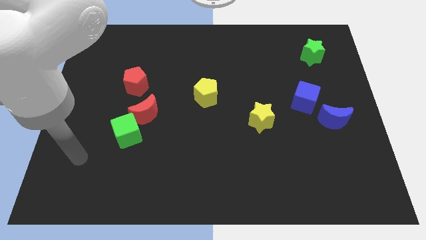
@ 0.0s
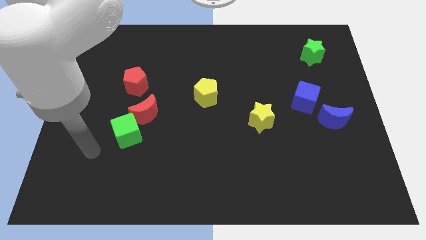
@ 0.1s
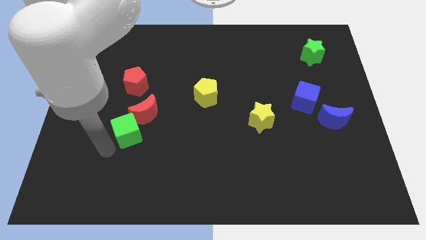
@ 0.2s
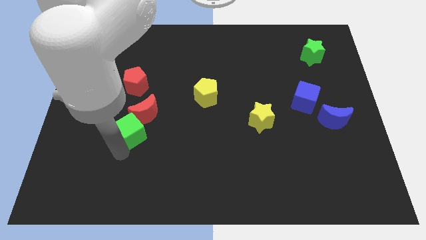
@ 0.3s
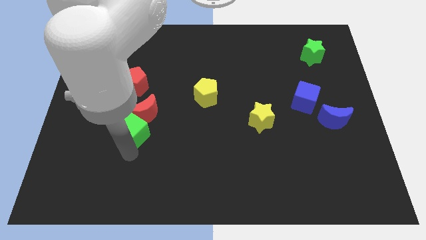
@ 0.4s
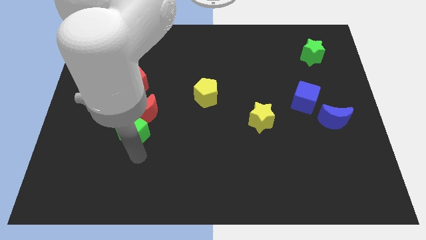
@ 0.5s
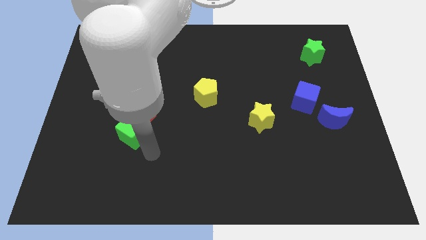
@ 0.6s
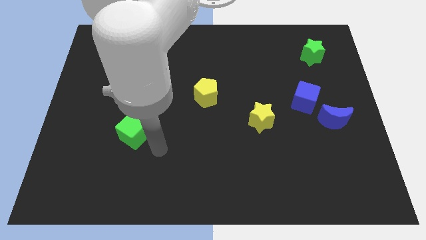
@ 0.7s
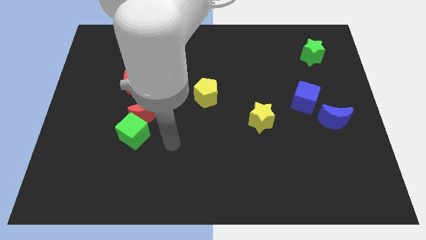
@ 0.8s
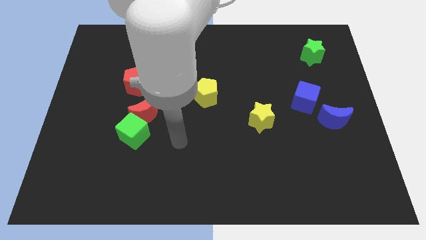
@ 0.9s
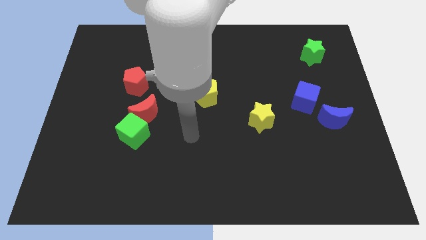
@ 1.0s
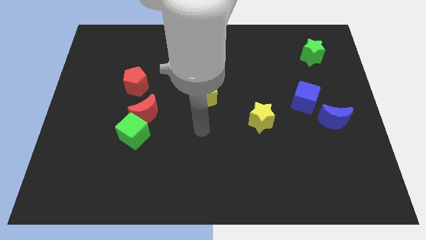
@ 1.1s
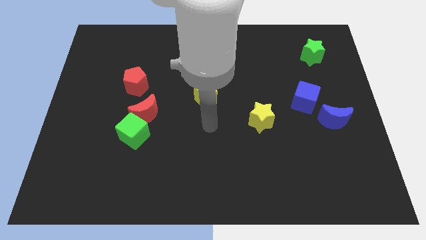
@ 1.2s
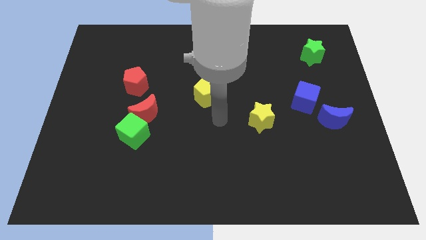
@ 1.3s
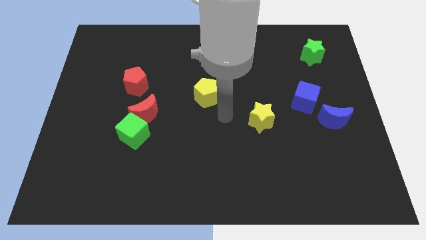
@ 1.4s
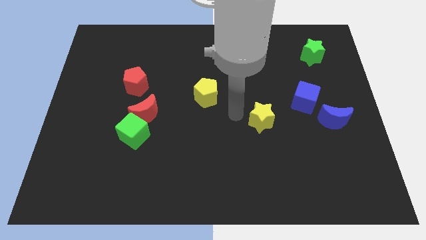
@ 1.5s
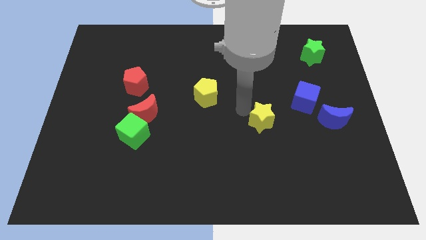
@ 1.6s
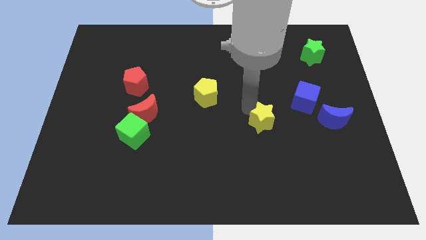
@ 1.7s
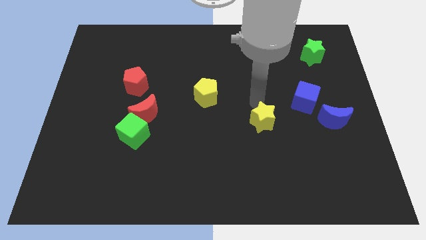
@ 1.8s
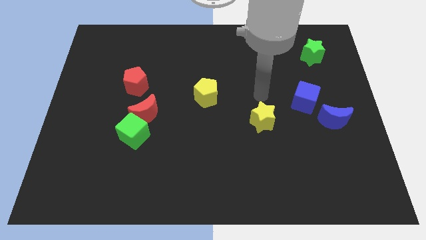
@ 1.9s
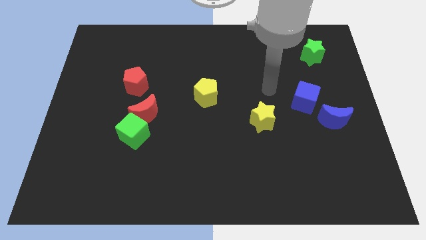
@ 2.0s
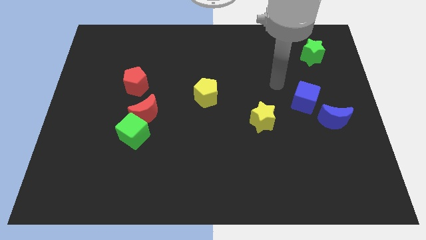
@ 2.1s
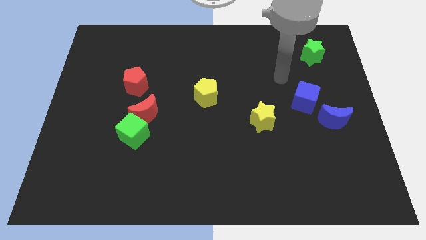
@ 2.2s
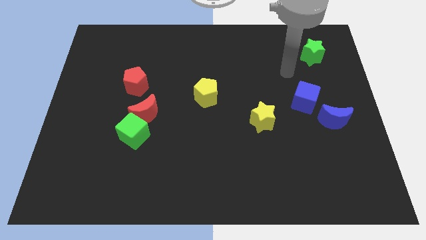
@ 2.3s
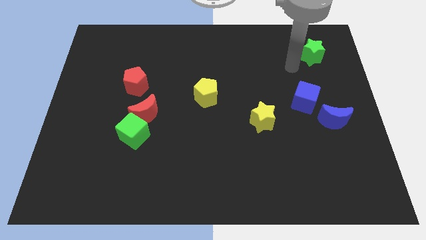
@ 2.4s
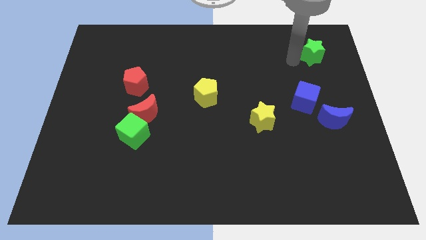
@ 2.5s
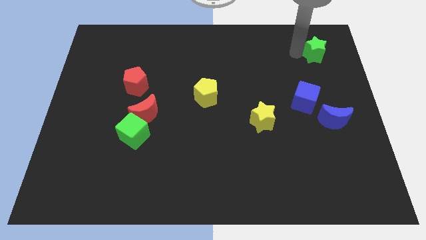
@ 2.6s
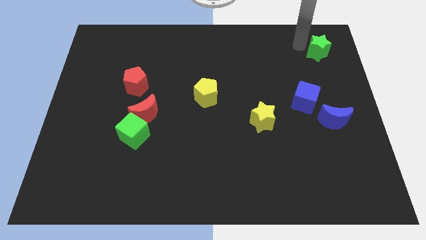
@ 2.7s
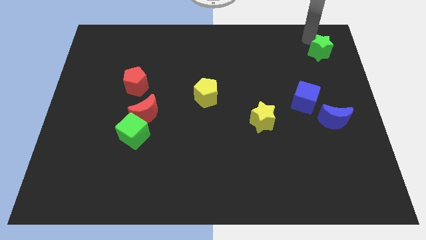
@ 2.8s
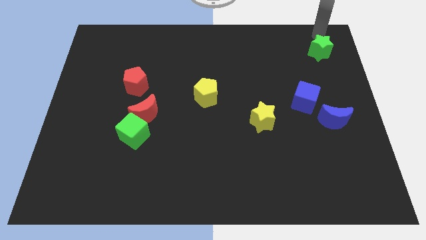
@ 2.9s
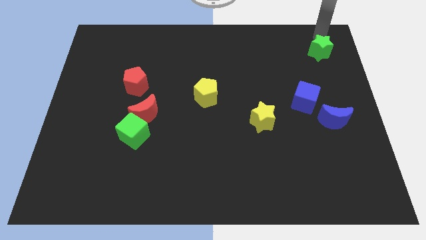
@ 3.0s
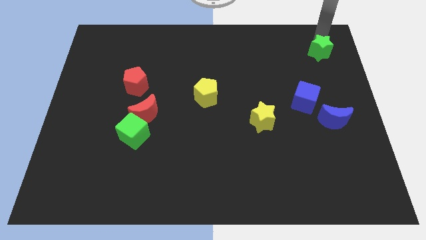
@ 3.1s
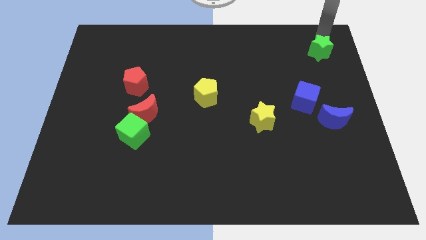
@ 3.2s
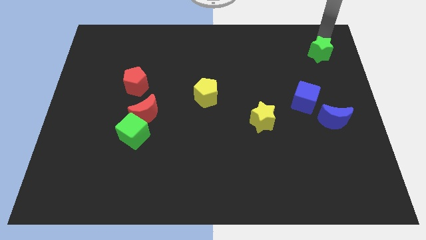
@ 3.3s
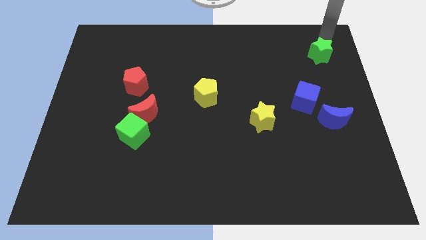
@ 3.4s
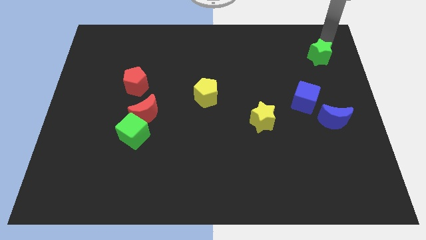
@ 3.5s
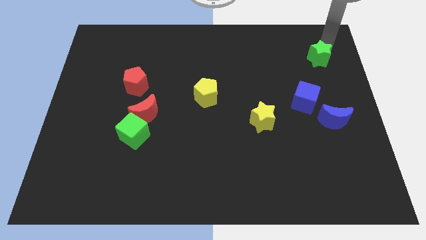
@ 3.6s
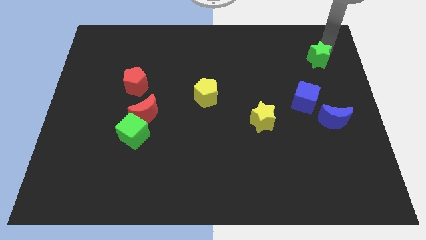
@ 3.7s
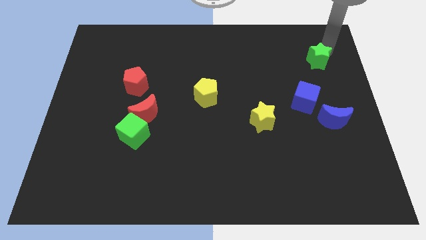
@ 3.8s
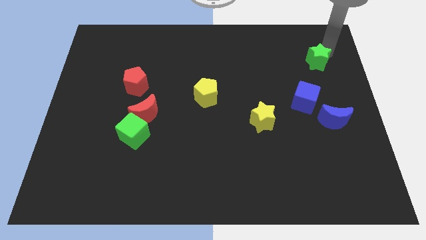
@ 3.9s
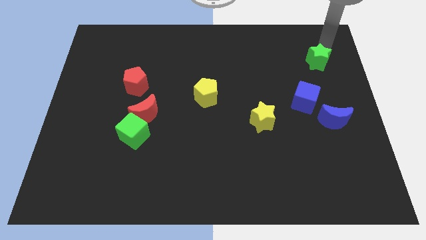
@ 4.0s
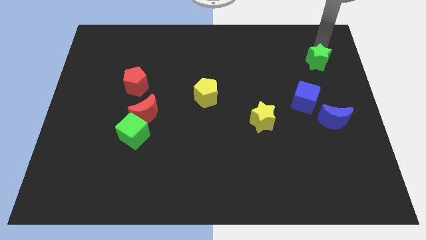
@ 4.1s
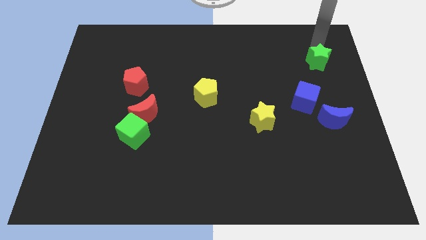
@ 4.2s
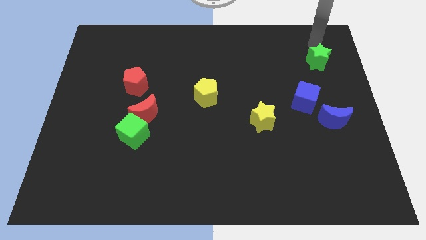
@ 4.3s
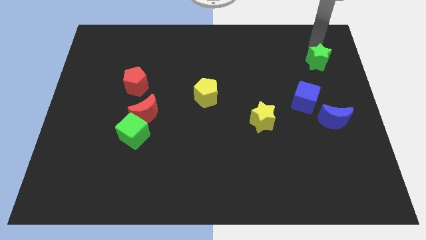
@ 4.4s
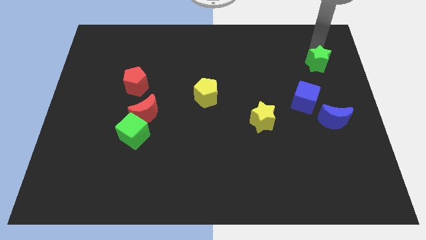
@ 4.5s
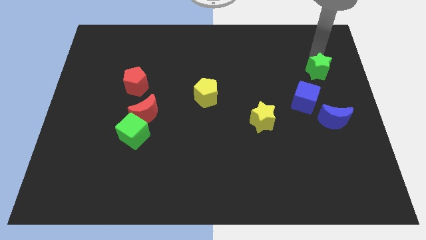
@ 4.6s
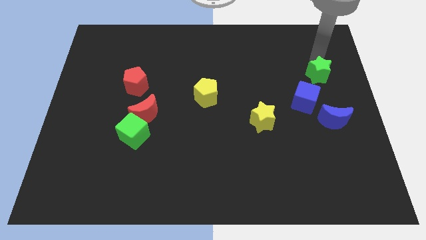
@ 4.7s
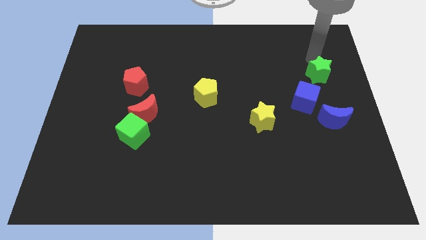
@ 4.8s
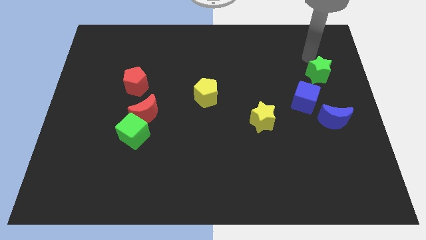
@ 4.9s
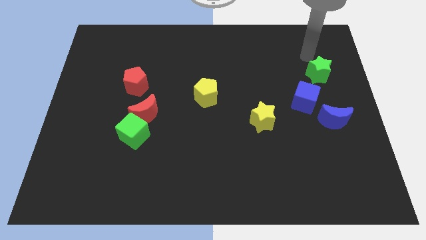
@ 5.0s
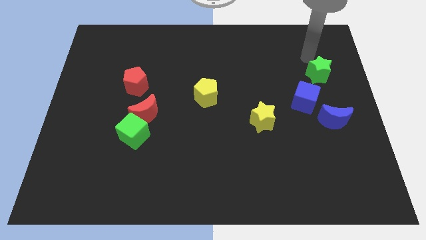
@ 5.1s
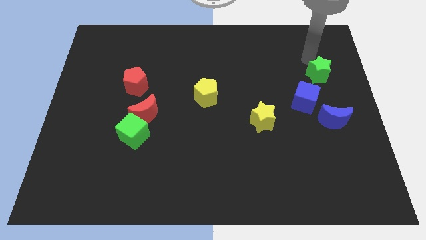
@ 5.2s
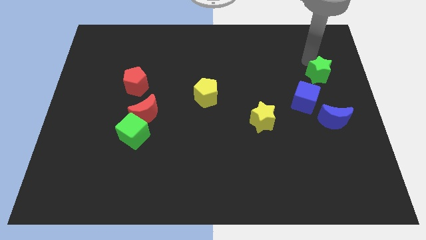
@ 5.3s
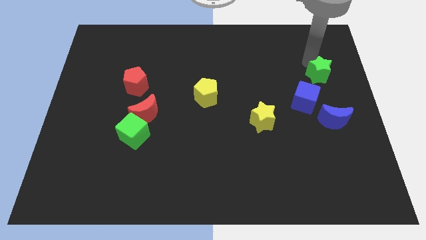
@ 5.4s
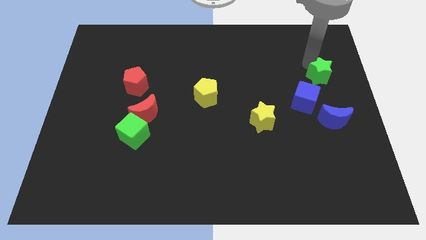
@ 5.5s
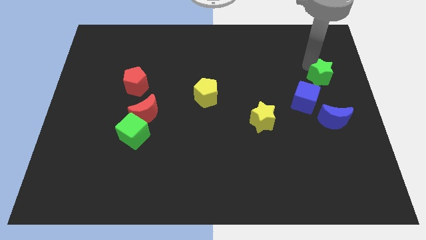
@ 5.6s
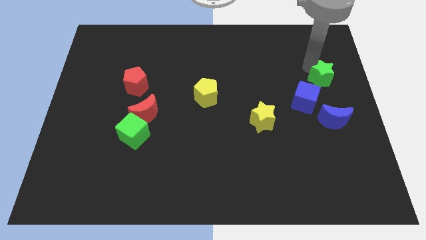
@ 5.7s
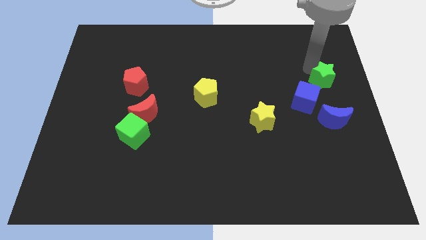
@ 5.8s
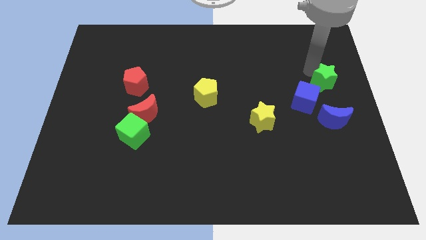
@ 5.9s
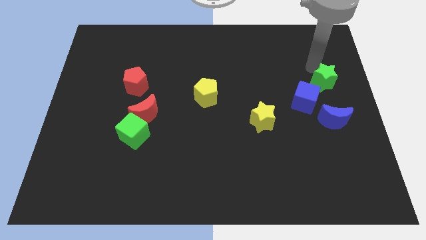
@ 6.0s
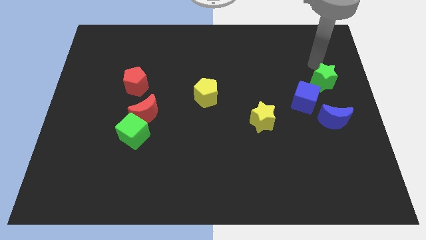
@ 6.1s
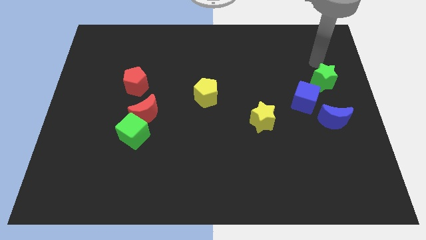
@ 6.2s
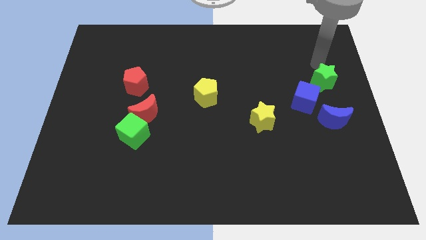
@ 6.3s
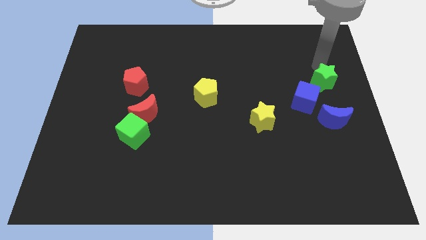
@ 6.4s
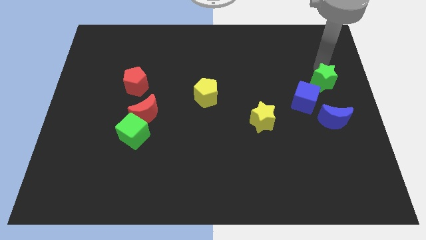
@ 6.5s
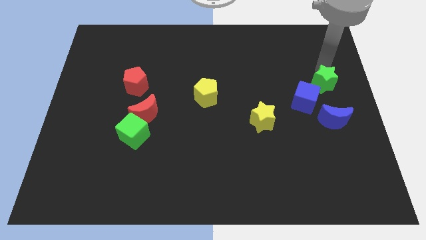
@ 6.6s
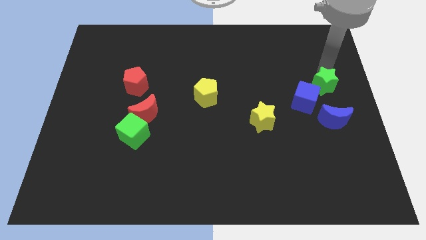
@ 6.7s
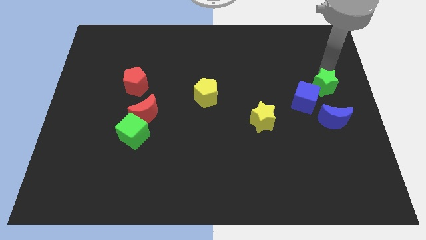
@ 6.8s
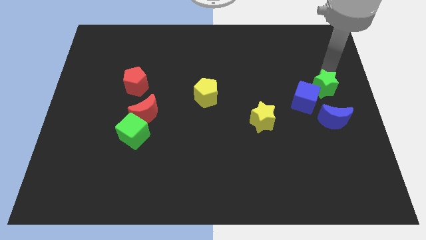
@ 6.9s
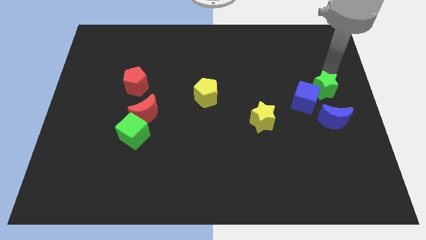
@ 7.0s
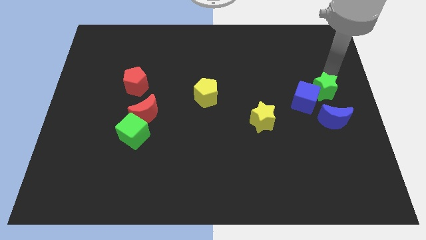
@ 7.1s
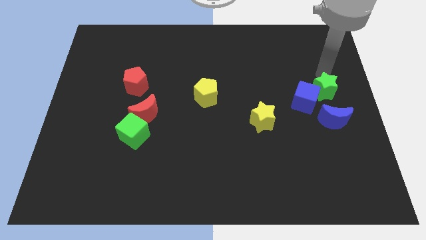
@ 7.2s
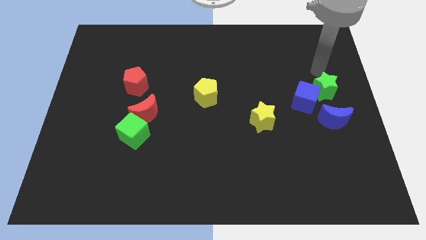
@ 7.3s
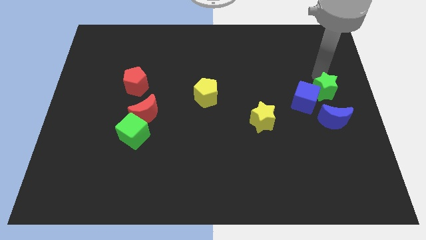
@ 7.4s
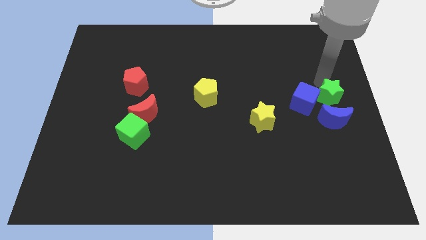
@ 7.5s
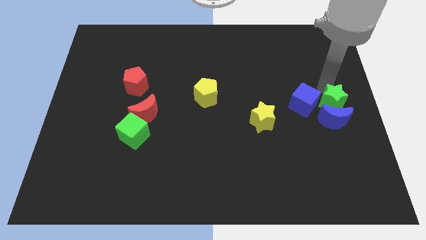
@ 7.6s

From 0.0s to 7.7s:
slide the green star close to the blue moon
